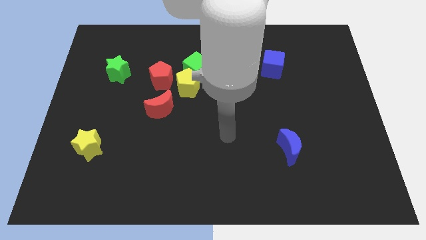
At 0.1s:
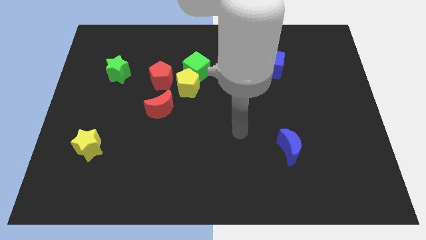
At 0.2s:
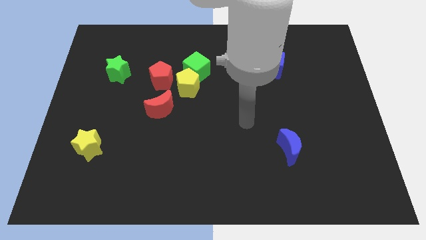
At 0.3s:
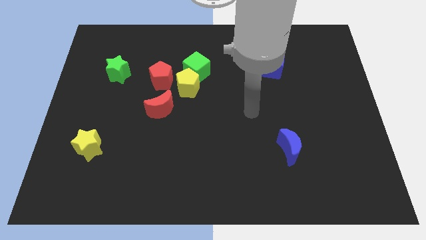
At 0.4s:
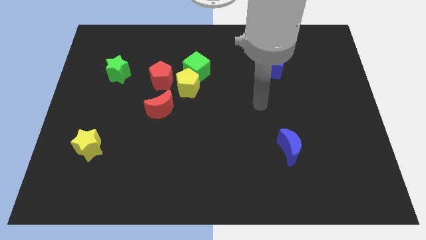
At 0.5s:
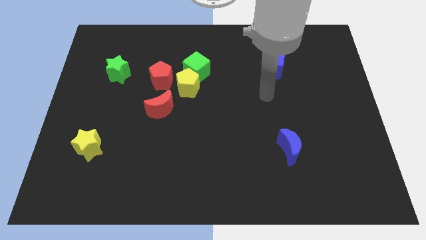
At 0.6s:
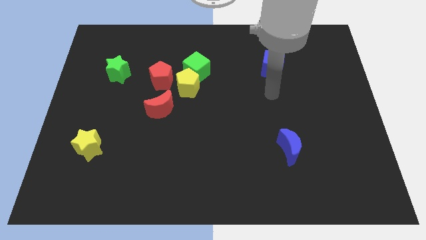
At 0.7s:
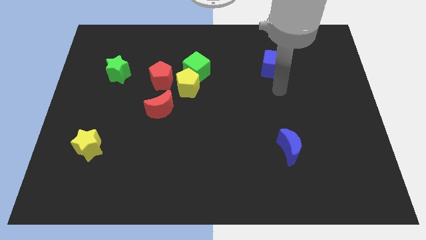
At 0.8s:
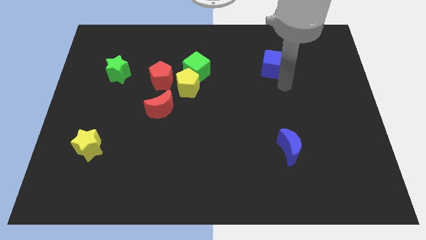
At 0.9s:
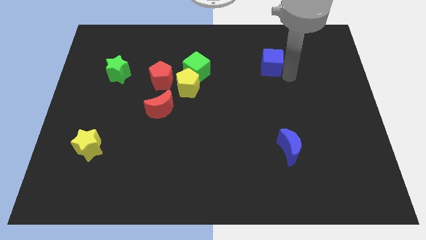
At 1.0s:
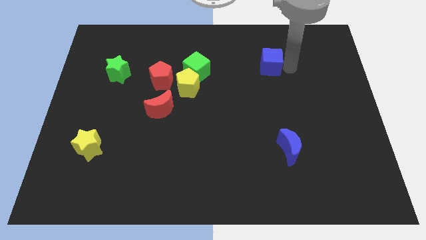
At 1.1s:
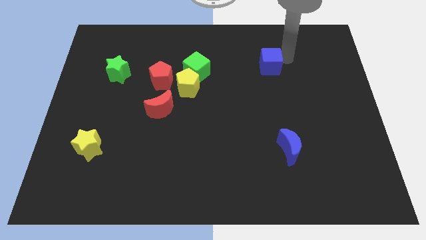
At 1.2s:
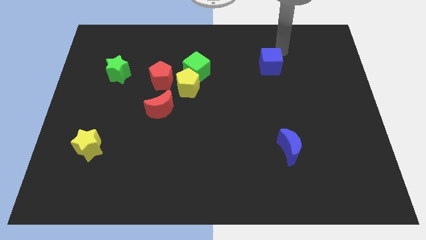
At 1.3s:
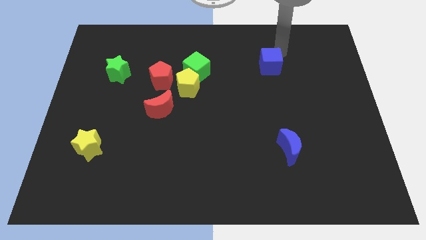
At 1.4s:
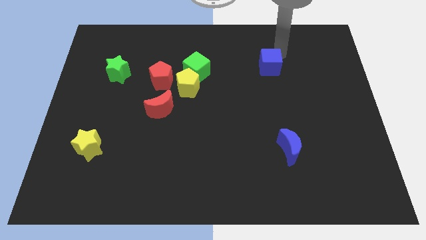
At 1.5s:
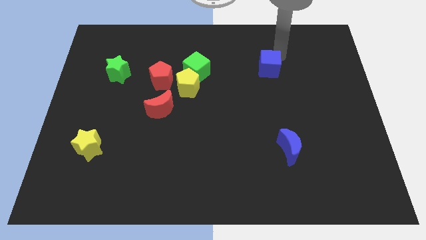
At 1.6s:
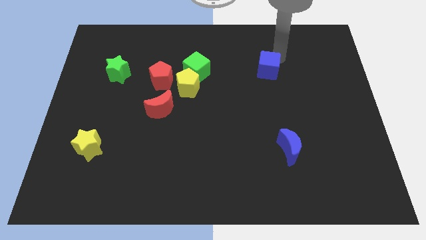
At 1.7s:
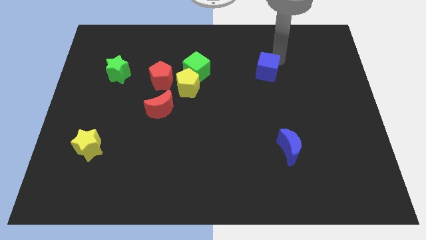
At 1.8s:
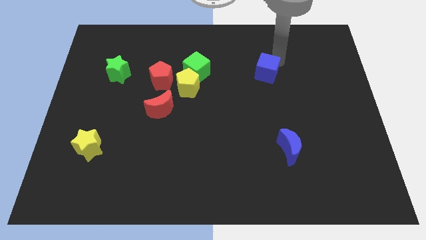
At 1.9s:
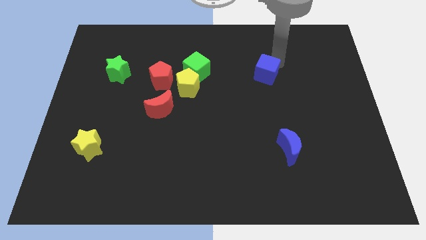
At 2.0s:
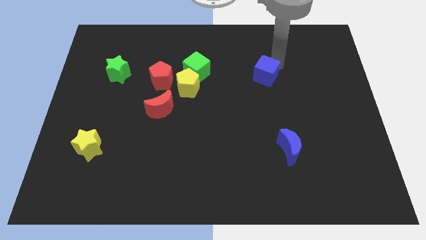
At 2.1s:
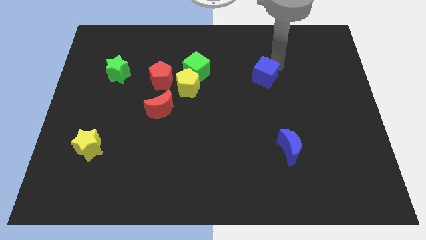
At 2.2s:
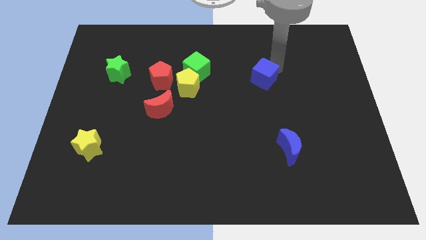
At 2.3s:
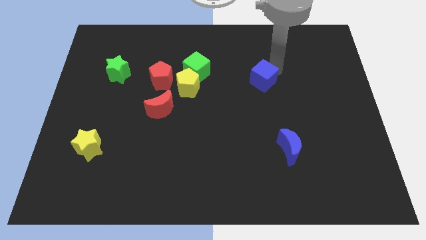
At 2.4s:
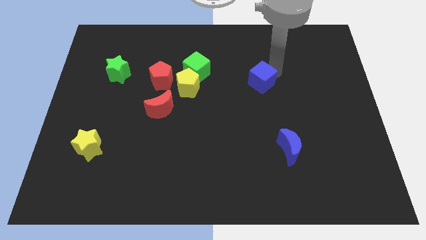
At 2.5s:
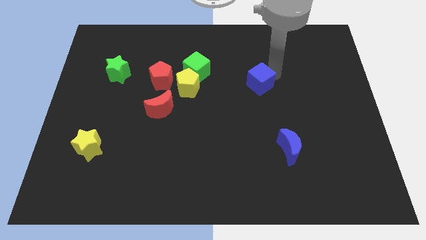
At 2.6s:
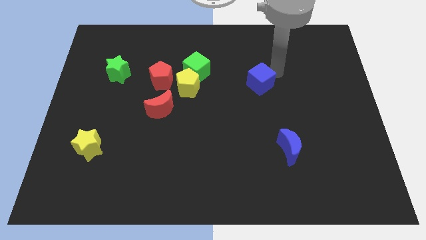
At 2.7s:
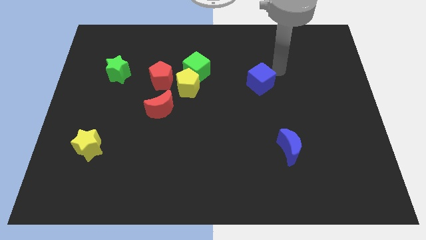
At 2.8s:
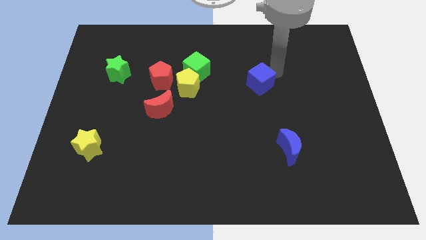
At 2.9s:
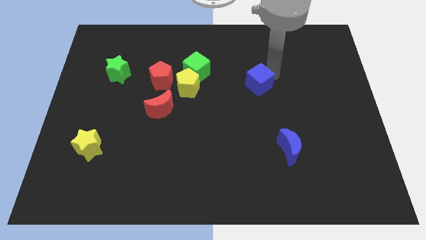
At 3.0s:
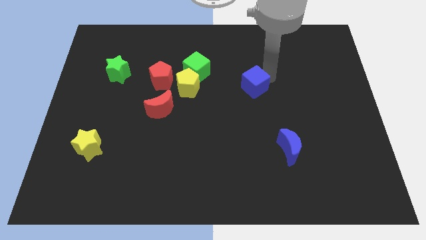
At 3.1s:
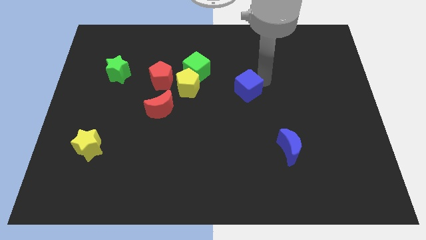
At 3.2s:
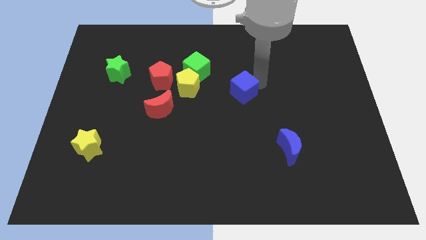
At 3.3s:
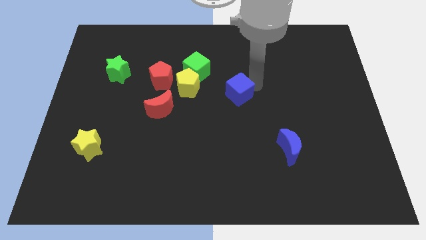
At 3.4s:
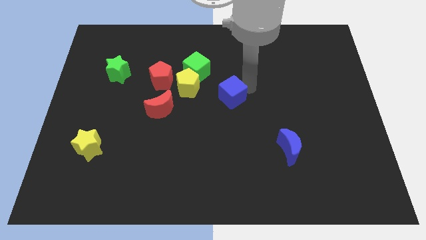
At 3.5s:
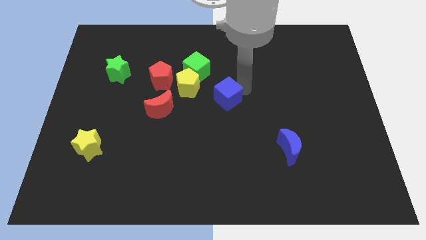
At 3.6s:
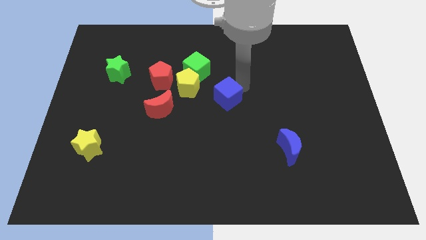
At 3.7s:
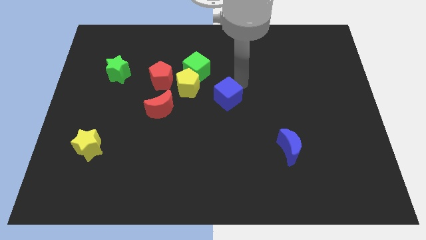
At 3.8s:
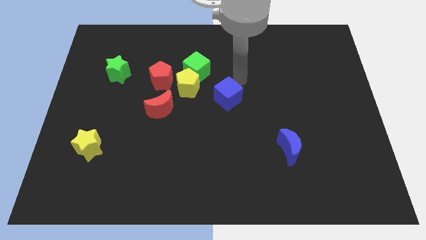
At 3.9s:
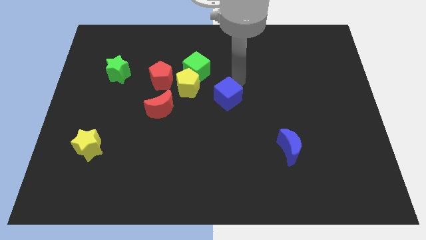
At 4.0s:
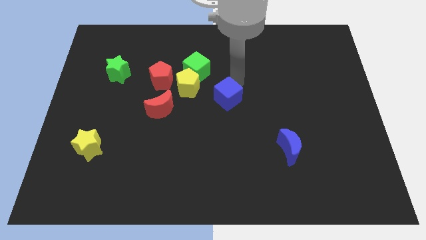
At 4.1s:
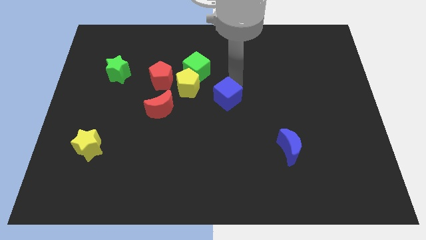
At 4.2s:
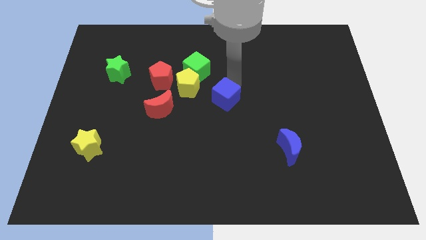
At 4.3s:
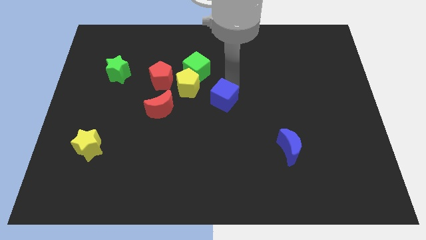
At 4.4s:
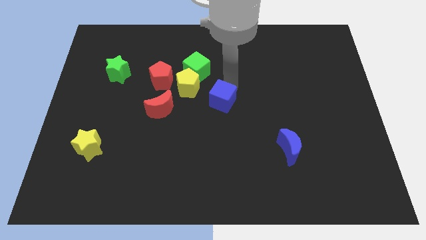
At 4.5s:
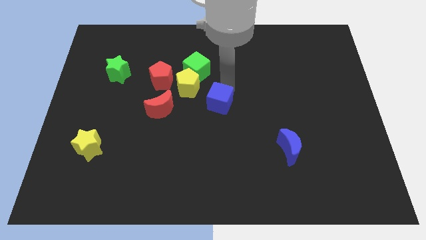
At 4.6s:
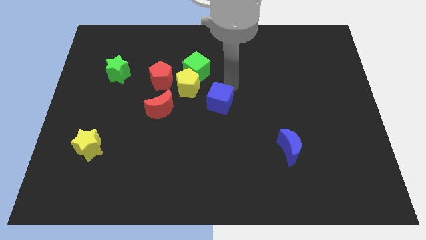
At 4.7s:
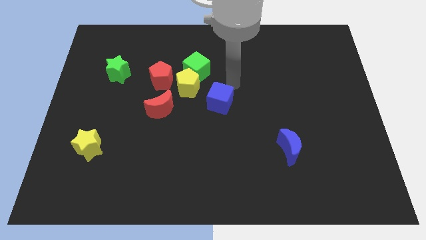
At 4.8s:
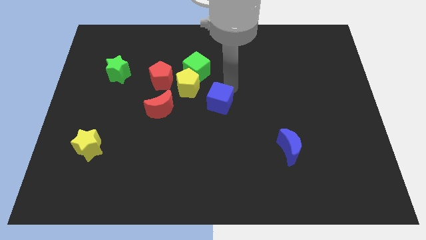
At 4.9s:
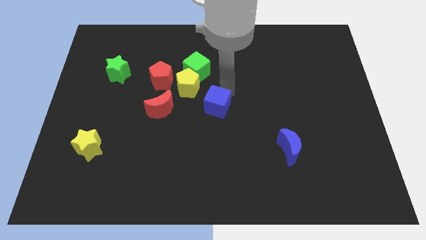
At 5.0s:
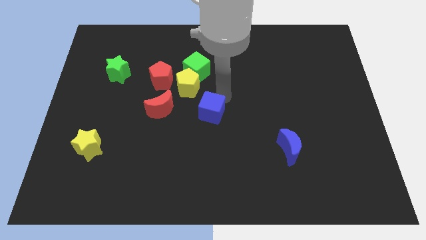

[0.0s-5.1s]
slide the blue cube down and to the left

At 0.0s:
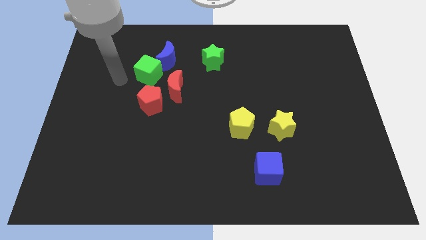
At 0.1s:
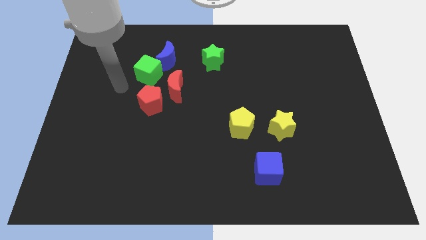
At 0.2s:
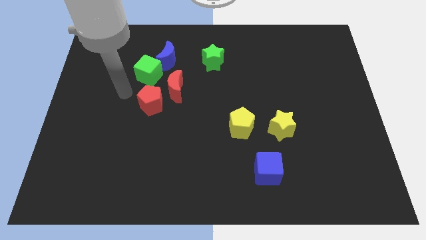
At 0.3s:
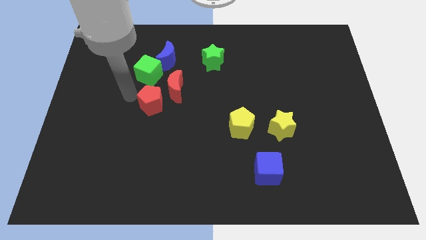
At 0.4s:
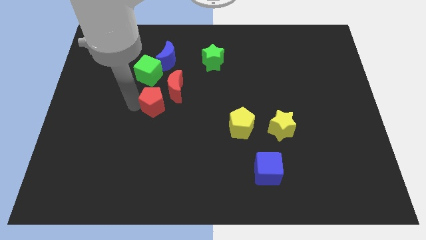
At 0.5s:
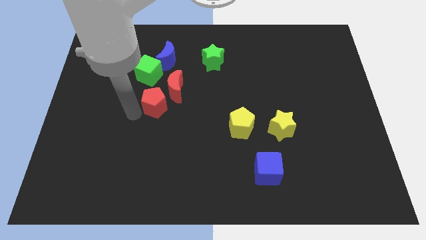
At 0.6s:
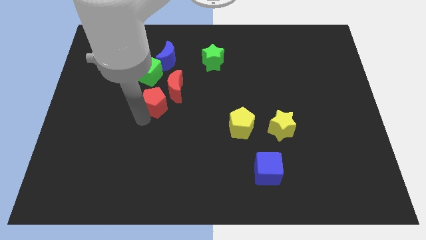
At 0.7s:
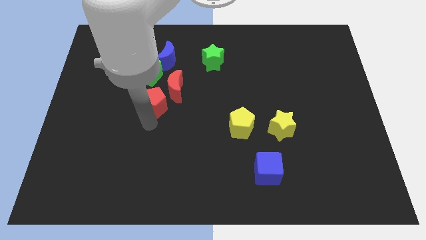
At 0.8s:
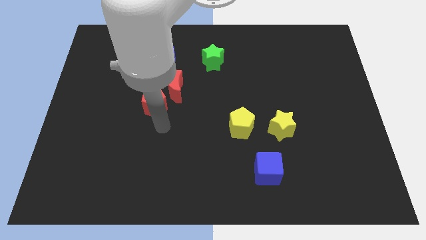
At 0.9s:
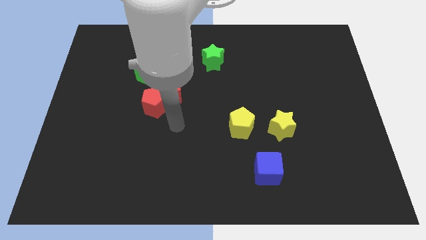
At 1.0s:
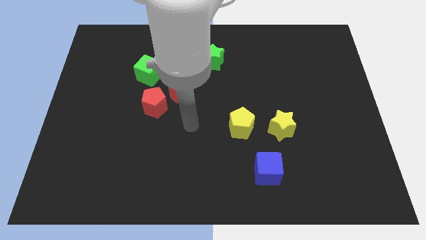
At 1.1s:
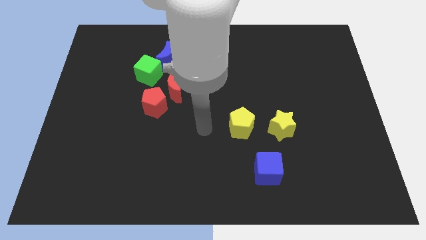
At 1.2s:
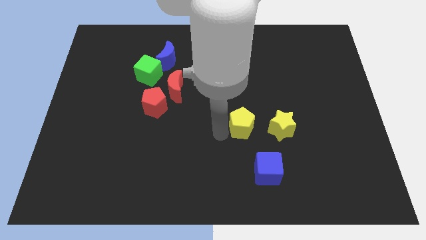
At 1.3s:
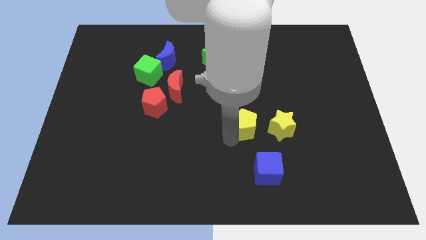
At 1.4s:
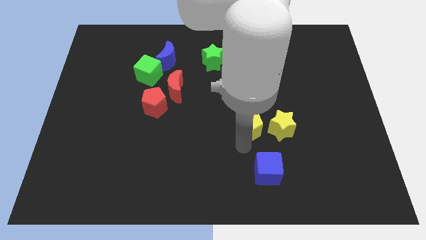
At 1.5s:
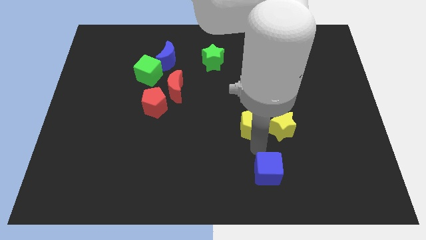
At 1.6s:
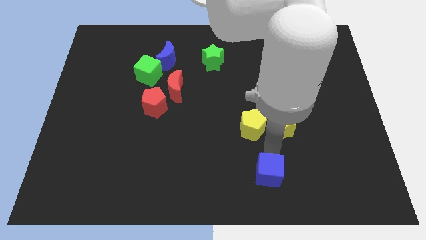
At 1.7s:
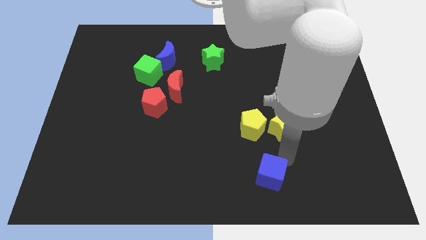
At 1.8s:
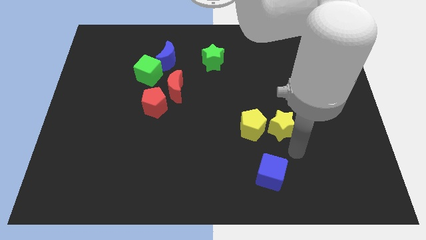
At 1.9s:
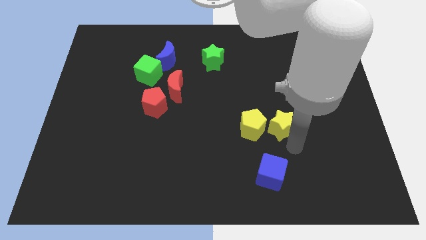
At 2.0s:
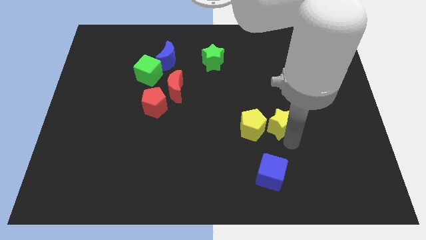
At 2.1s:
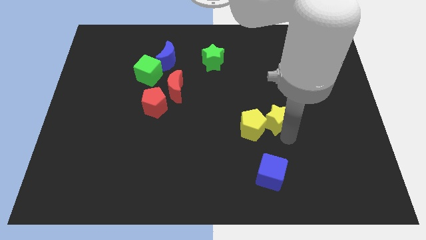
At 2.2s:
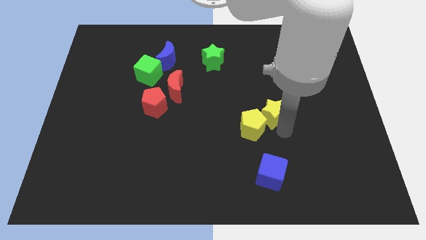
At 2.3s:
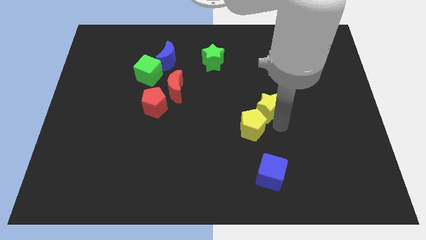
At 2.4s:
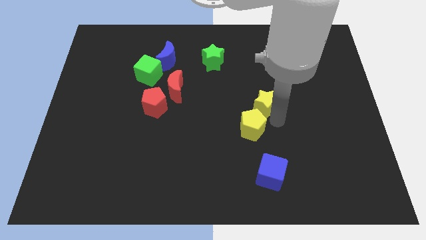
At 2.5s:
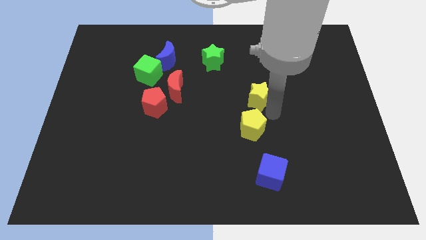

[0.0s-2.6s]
slightly push the yellow star up and then to the left

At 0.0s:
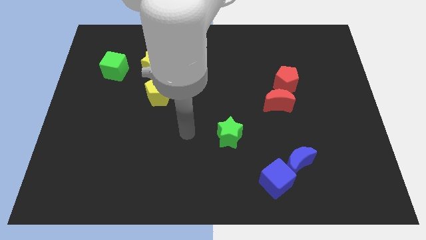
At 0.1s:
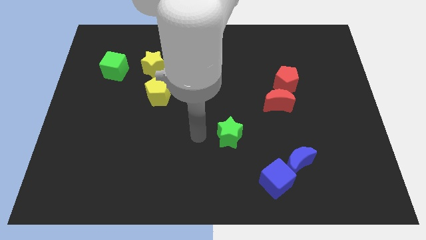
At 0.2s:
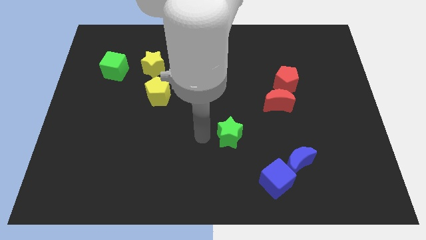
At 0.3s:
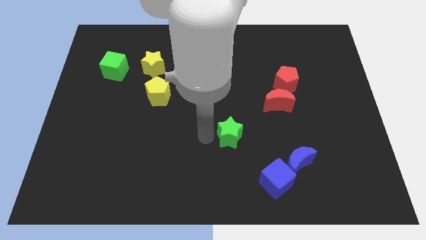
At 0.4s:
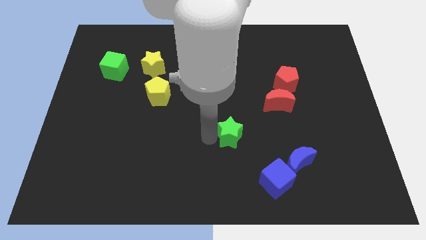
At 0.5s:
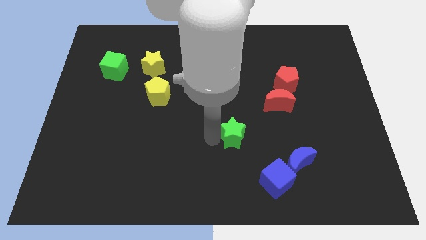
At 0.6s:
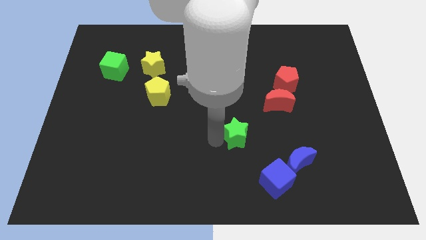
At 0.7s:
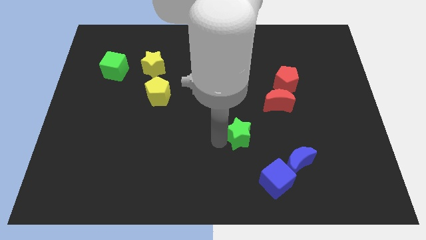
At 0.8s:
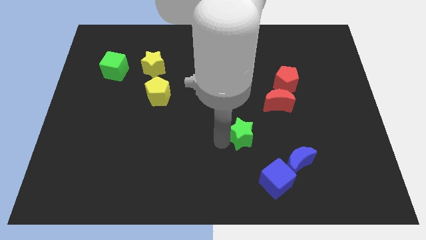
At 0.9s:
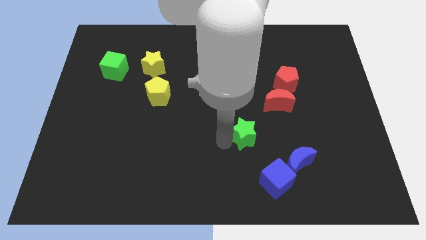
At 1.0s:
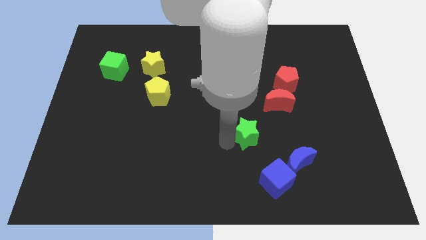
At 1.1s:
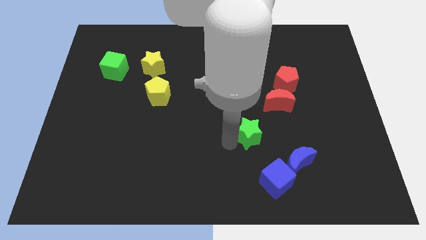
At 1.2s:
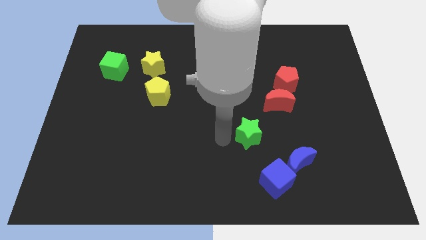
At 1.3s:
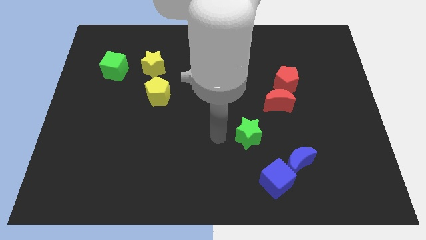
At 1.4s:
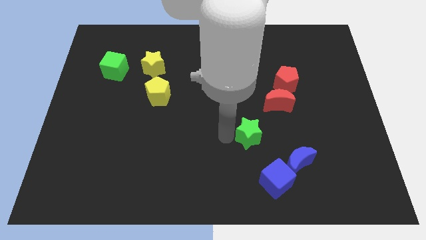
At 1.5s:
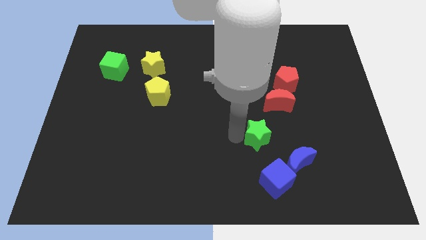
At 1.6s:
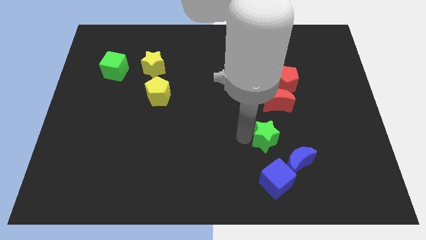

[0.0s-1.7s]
slightly move the green star to the right
